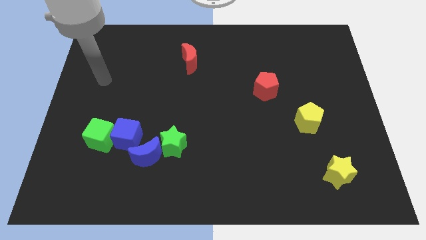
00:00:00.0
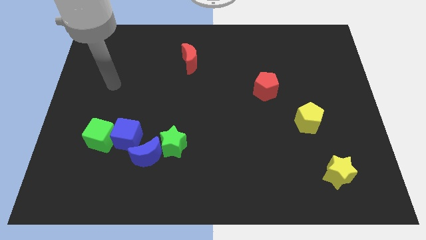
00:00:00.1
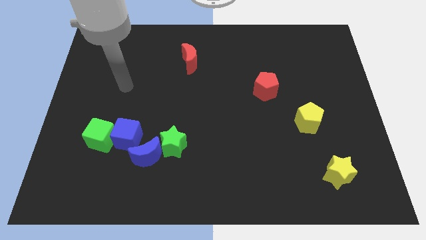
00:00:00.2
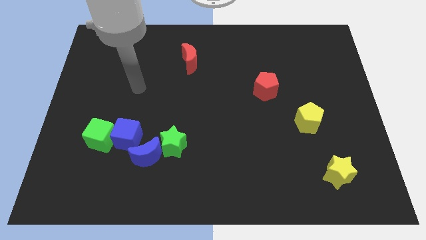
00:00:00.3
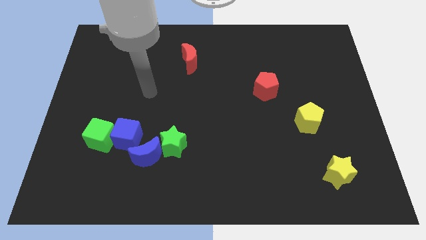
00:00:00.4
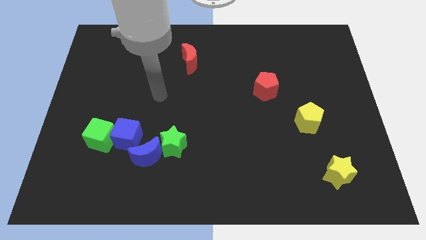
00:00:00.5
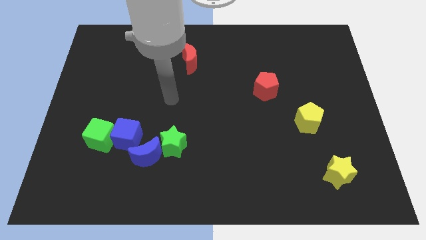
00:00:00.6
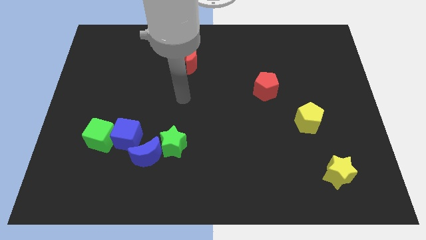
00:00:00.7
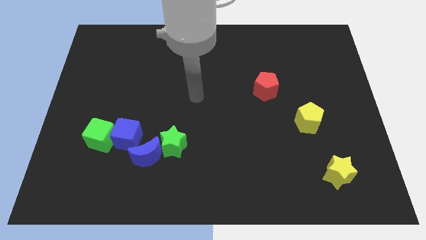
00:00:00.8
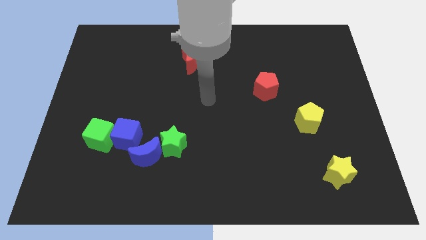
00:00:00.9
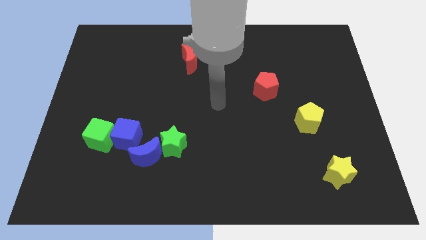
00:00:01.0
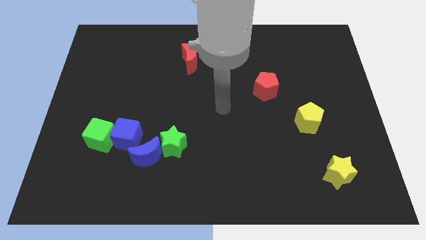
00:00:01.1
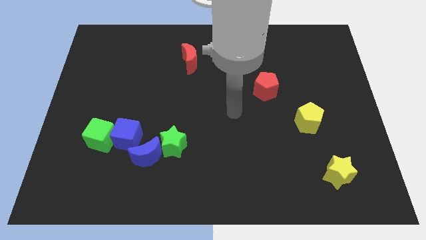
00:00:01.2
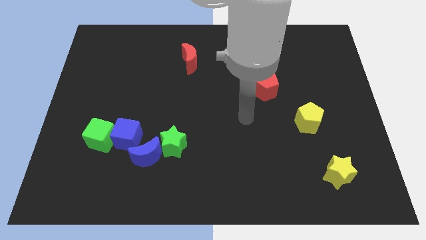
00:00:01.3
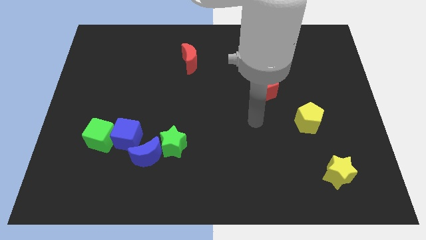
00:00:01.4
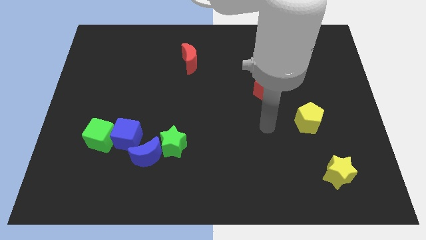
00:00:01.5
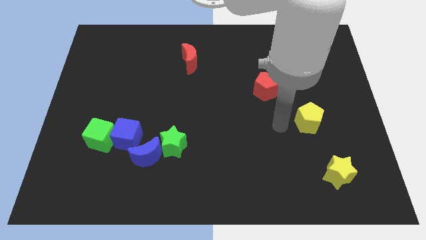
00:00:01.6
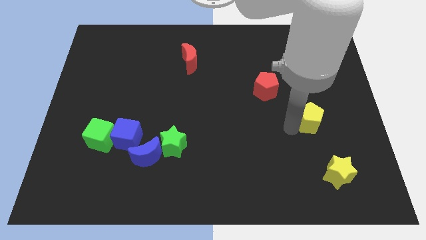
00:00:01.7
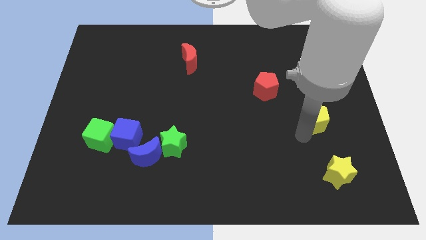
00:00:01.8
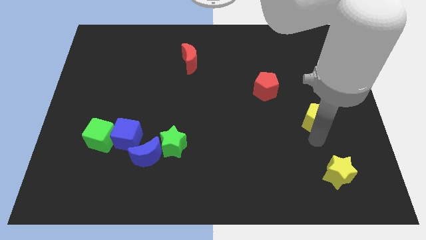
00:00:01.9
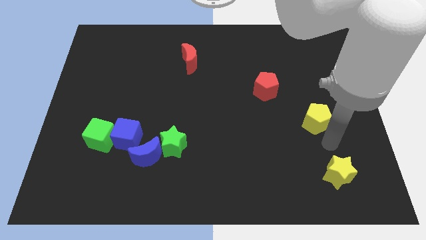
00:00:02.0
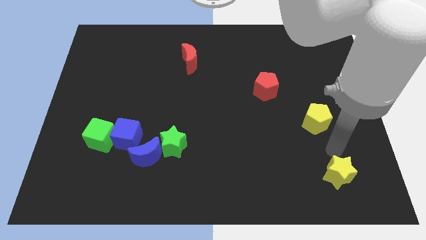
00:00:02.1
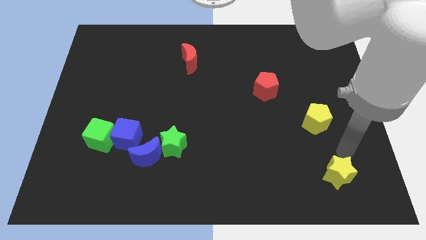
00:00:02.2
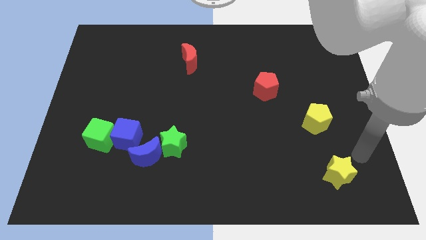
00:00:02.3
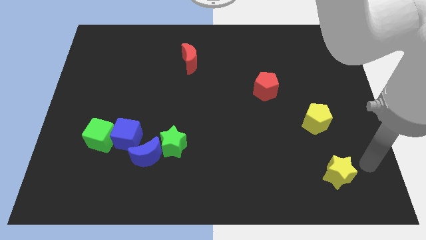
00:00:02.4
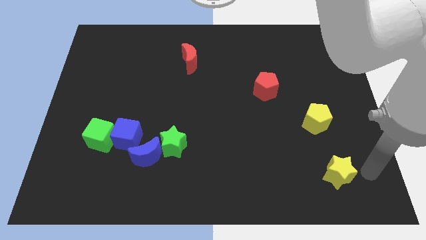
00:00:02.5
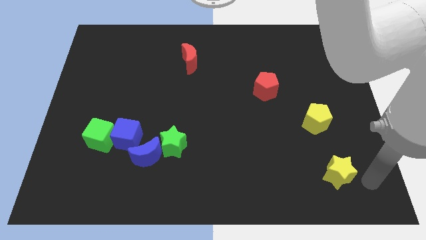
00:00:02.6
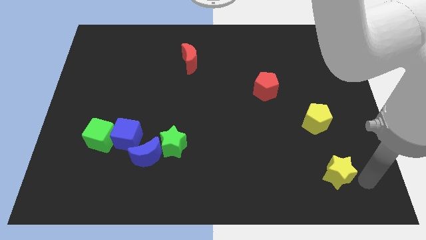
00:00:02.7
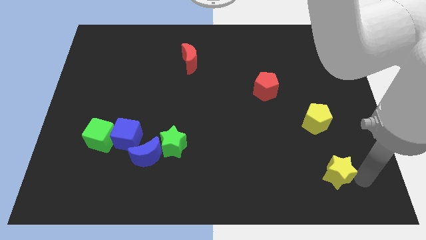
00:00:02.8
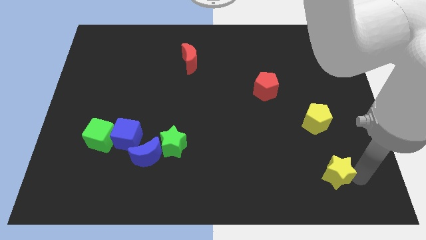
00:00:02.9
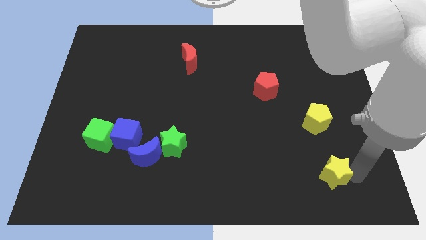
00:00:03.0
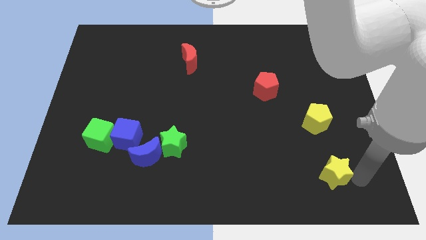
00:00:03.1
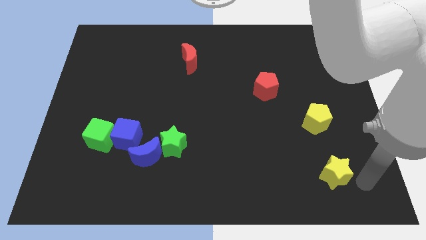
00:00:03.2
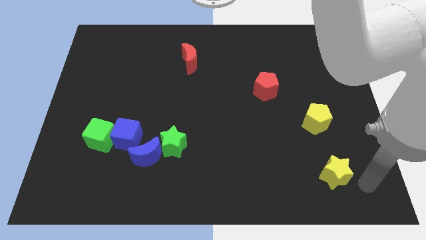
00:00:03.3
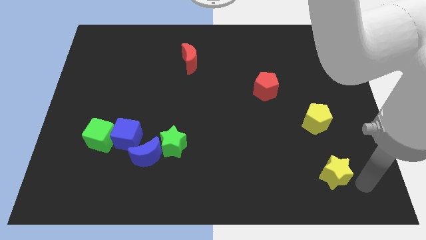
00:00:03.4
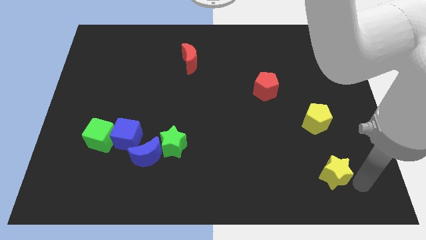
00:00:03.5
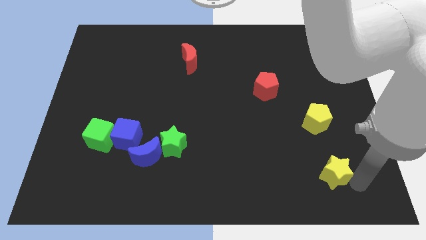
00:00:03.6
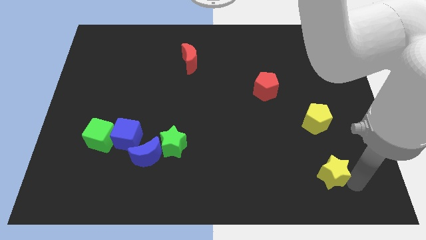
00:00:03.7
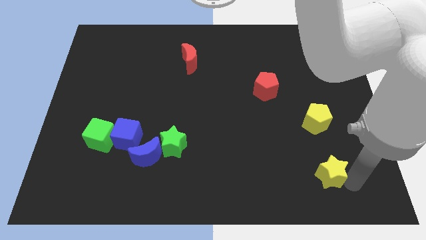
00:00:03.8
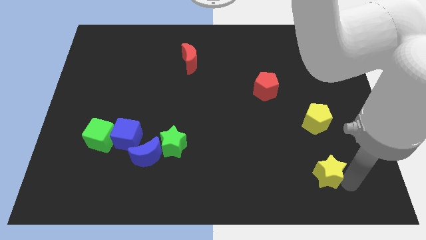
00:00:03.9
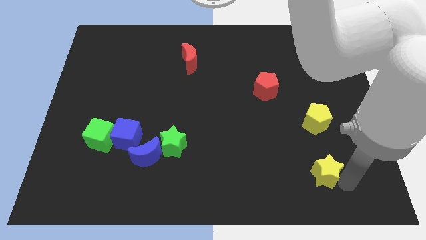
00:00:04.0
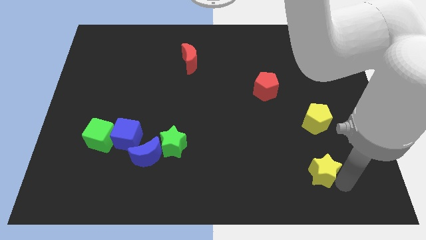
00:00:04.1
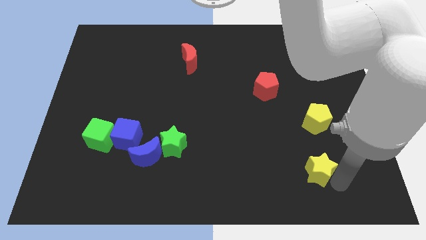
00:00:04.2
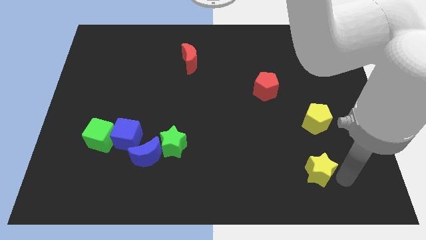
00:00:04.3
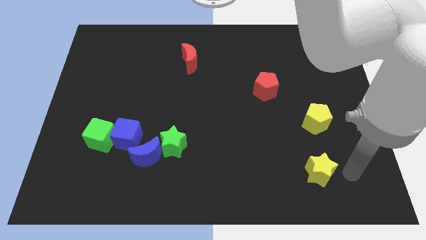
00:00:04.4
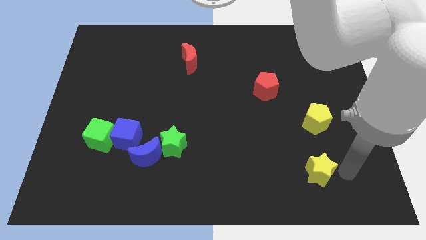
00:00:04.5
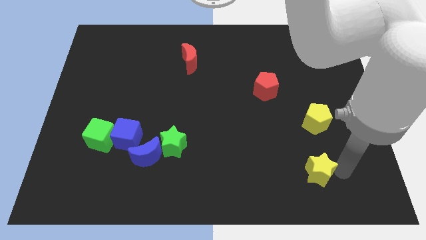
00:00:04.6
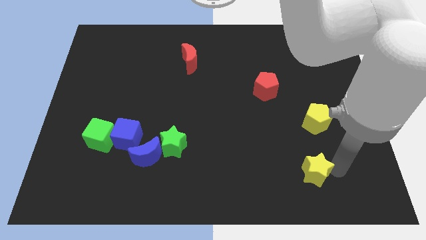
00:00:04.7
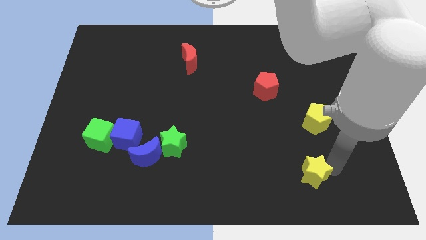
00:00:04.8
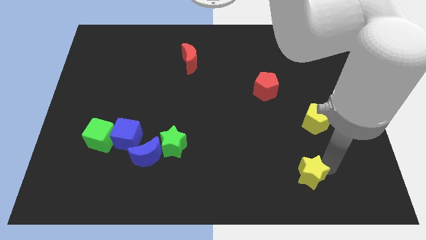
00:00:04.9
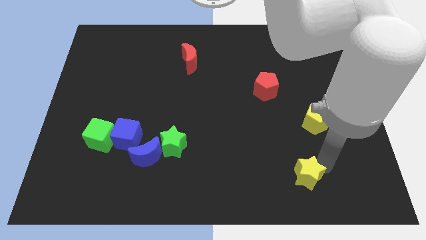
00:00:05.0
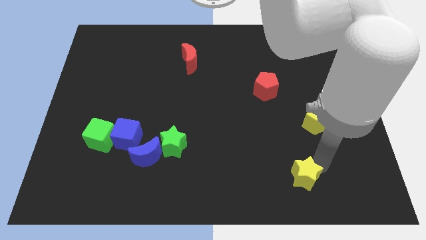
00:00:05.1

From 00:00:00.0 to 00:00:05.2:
slightly slide the yellow star to the left

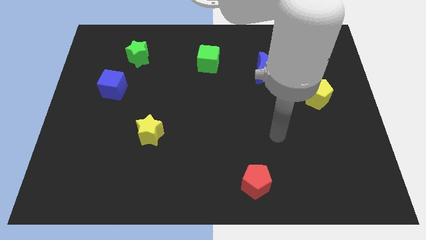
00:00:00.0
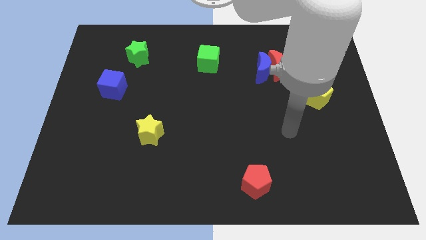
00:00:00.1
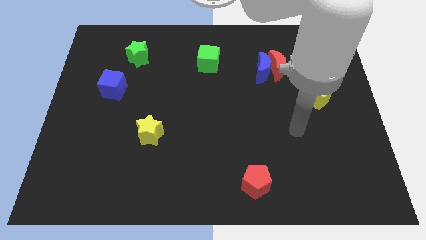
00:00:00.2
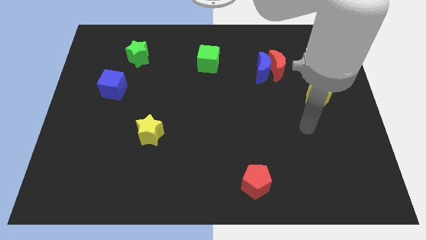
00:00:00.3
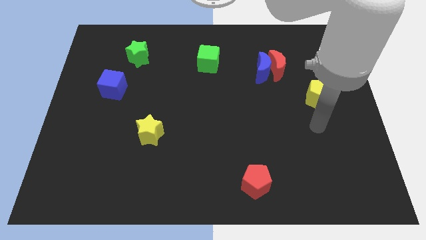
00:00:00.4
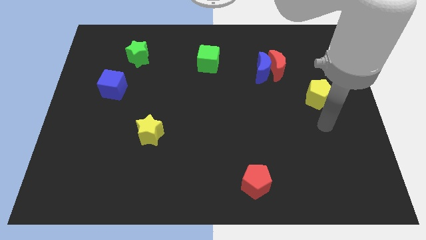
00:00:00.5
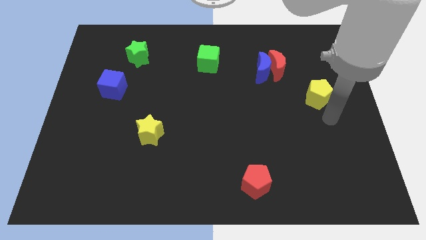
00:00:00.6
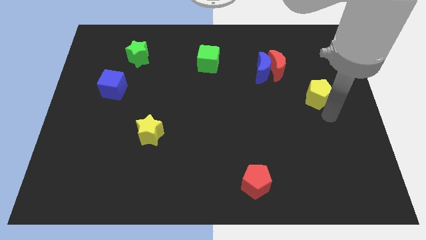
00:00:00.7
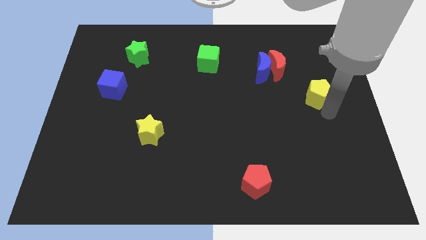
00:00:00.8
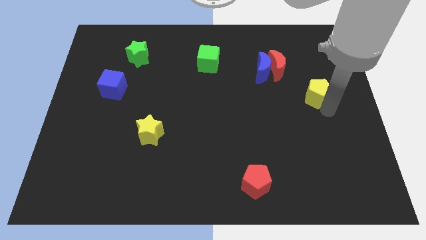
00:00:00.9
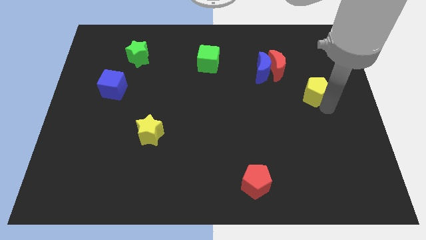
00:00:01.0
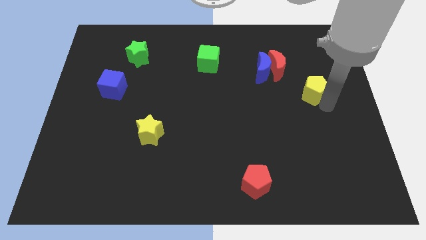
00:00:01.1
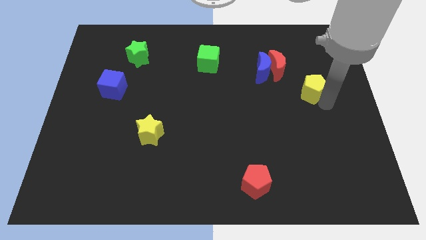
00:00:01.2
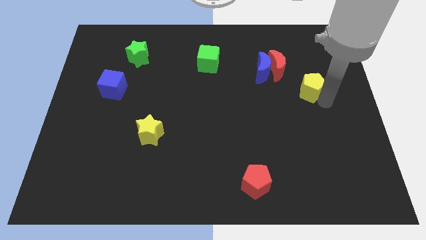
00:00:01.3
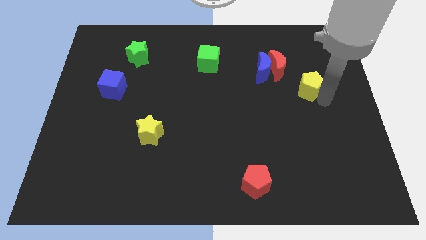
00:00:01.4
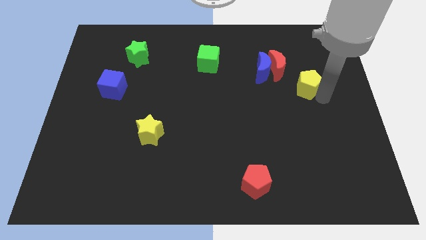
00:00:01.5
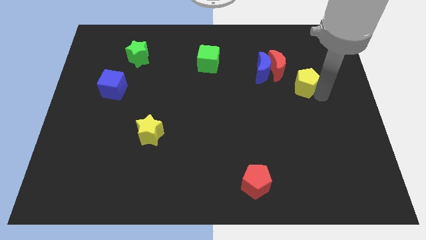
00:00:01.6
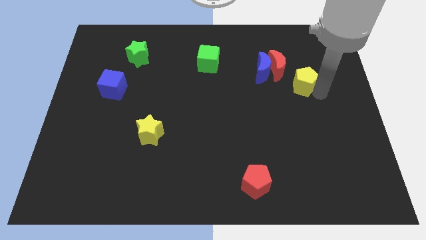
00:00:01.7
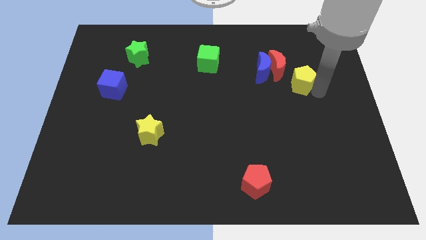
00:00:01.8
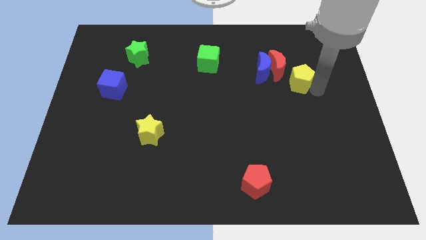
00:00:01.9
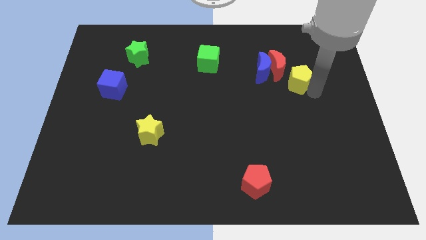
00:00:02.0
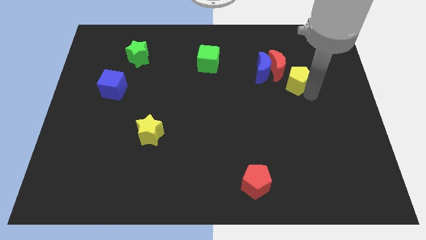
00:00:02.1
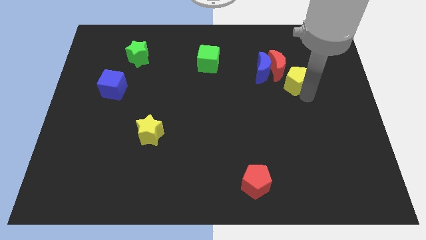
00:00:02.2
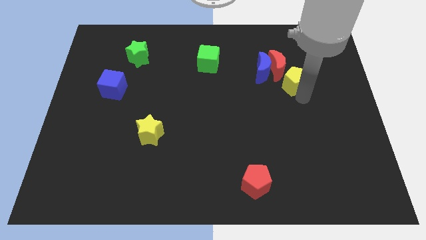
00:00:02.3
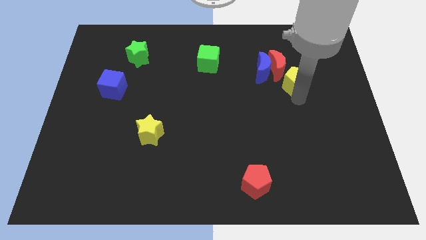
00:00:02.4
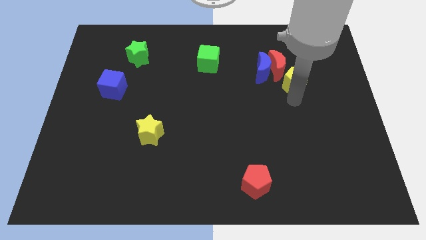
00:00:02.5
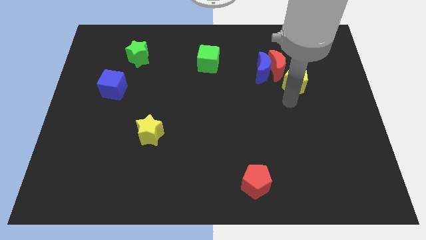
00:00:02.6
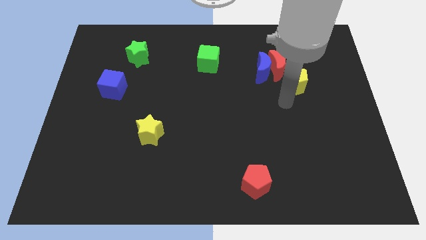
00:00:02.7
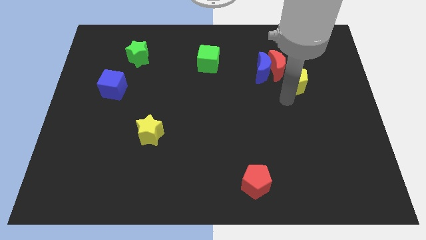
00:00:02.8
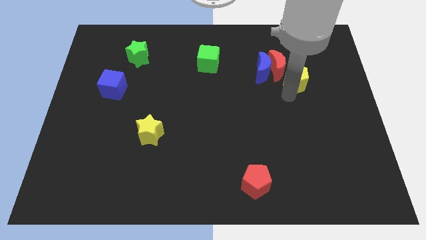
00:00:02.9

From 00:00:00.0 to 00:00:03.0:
push the yellow pentagon a bit up and then left
